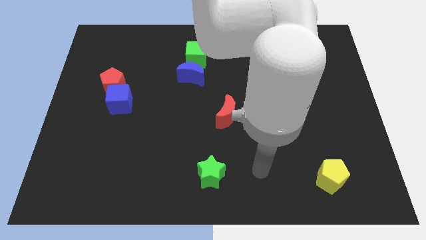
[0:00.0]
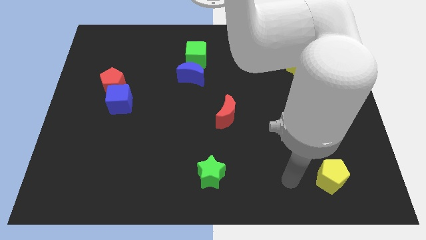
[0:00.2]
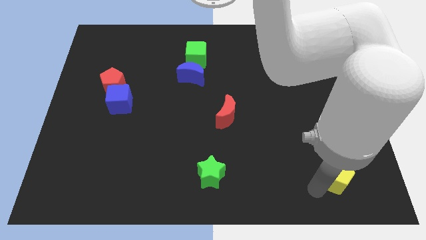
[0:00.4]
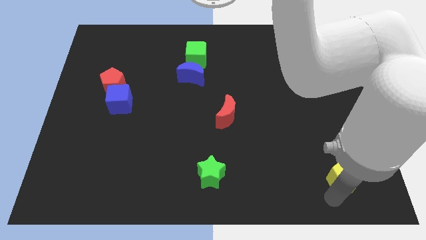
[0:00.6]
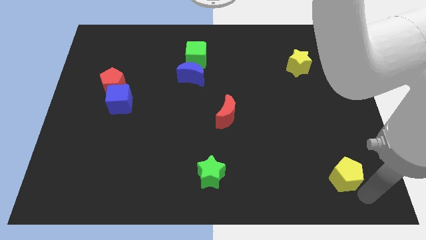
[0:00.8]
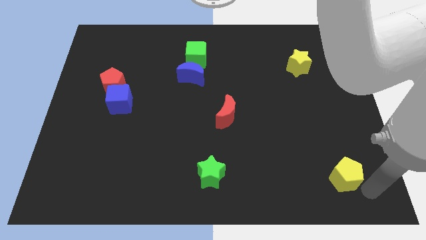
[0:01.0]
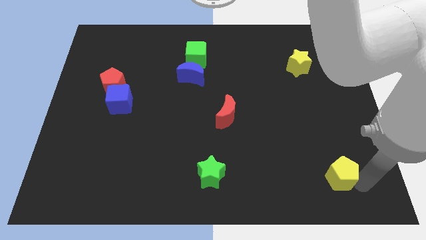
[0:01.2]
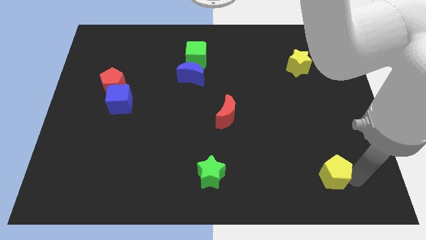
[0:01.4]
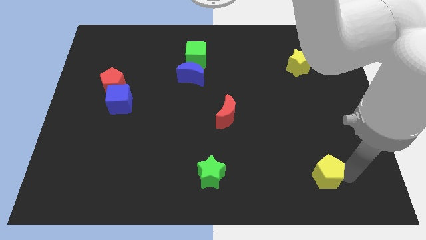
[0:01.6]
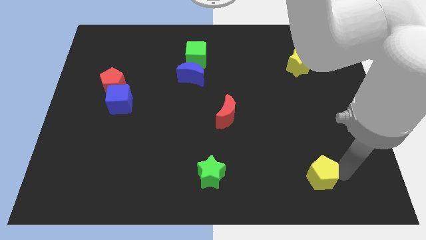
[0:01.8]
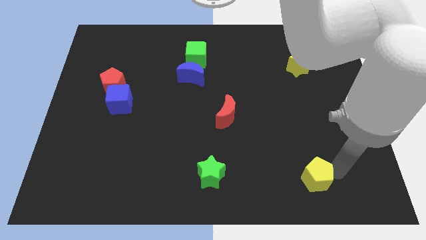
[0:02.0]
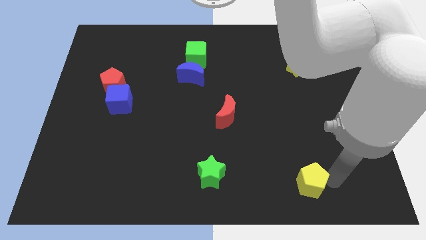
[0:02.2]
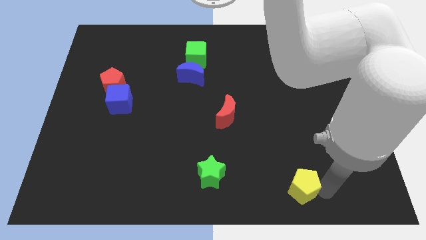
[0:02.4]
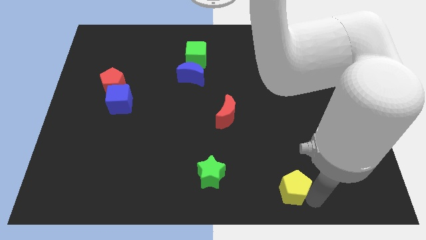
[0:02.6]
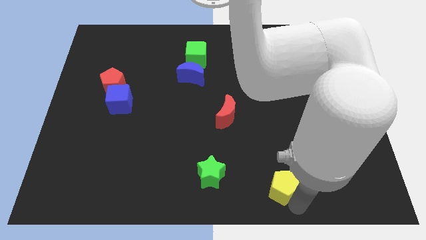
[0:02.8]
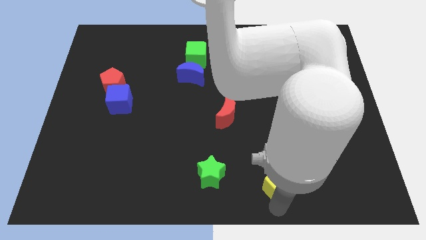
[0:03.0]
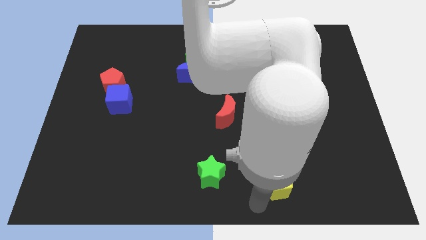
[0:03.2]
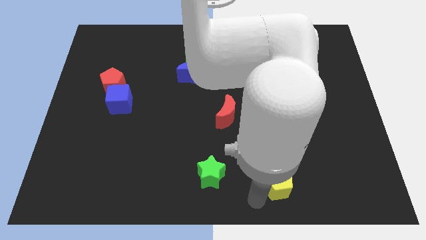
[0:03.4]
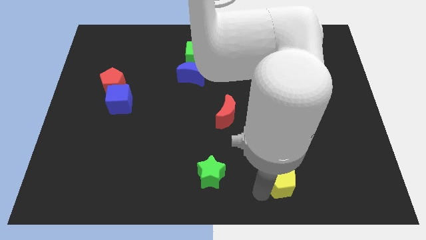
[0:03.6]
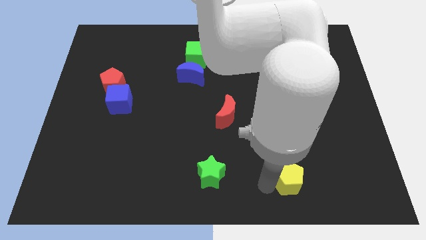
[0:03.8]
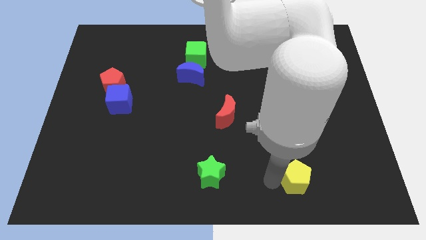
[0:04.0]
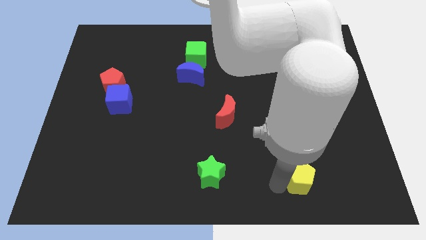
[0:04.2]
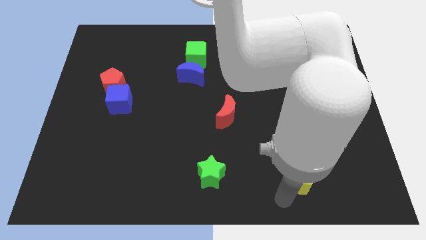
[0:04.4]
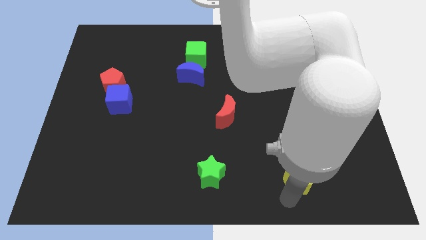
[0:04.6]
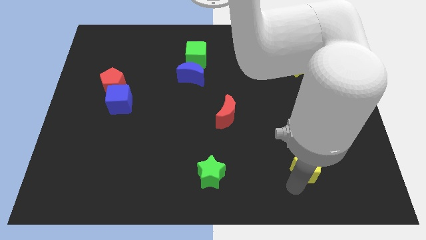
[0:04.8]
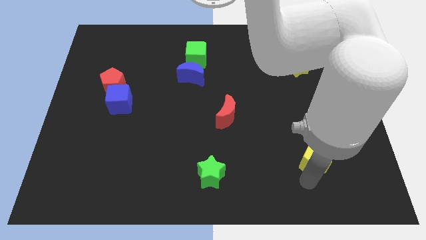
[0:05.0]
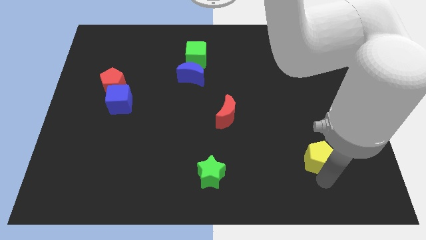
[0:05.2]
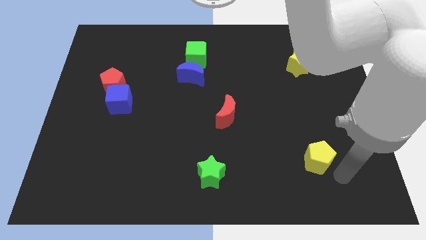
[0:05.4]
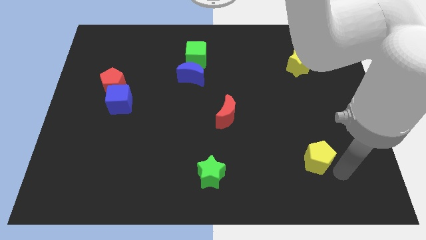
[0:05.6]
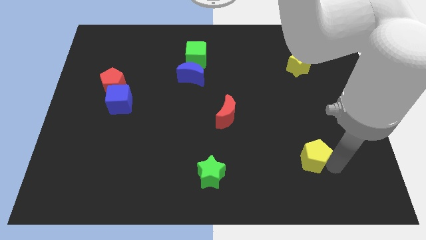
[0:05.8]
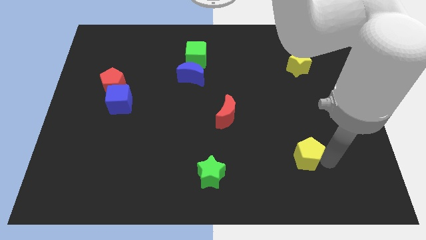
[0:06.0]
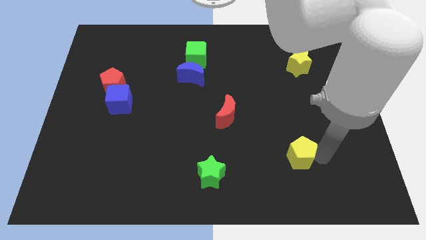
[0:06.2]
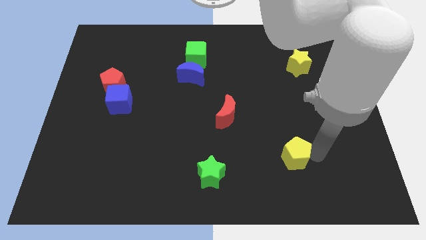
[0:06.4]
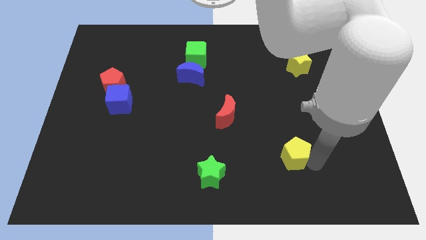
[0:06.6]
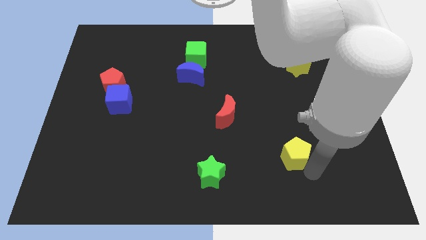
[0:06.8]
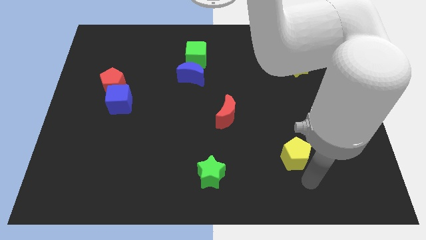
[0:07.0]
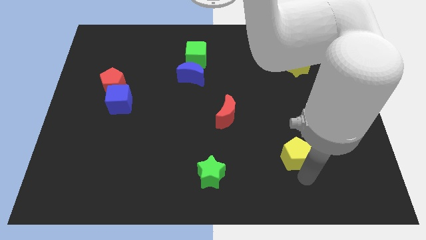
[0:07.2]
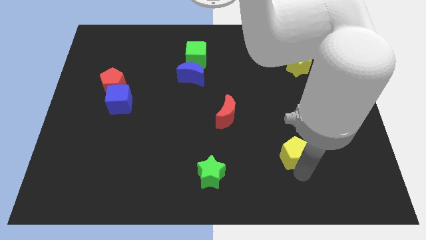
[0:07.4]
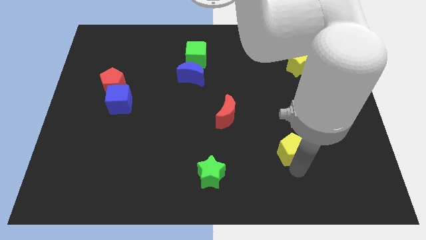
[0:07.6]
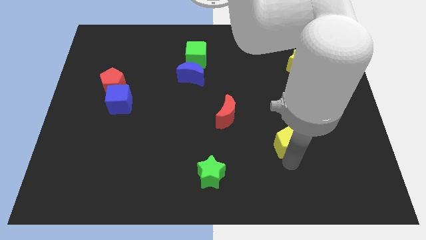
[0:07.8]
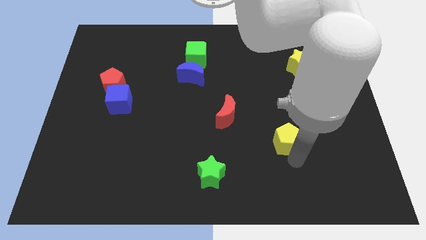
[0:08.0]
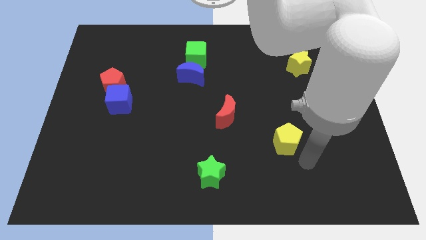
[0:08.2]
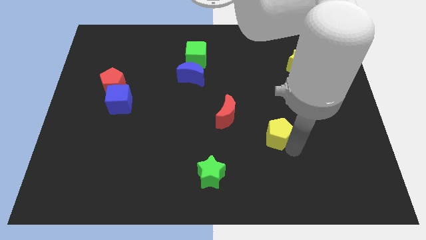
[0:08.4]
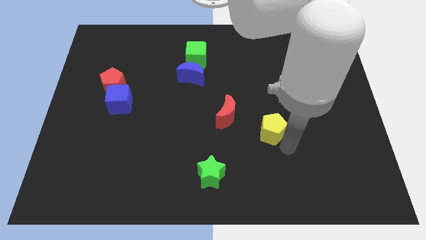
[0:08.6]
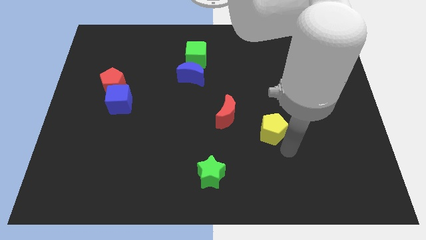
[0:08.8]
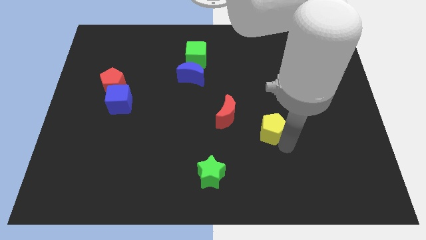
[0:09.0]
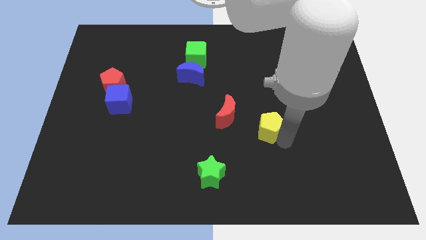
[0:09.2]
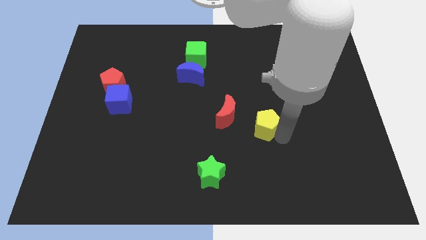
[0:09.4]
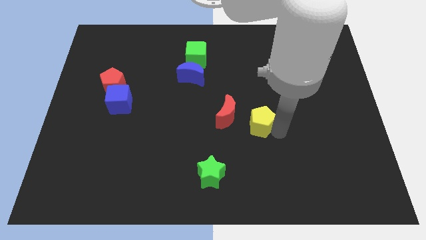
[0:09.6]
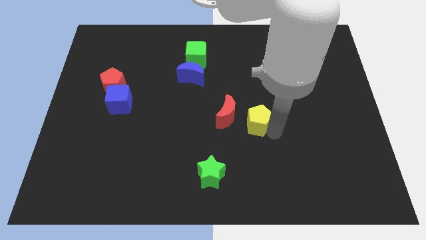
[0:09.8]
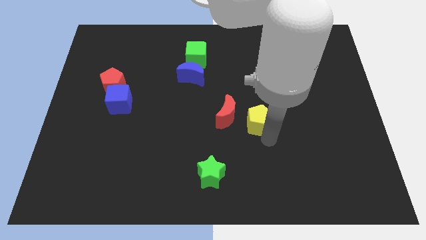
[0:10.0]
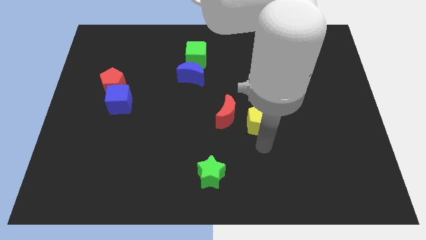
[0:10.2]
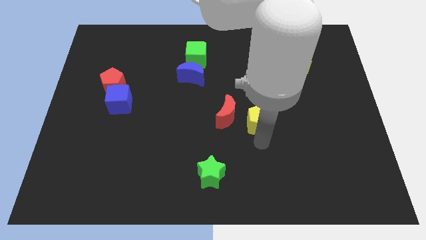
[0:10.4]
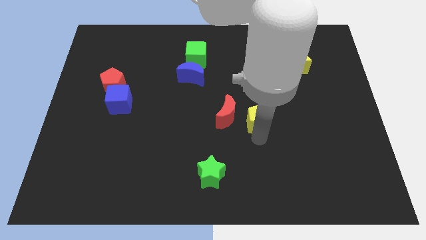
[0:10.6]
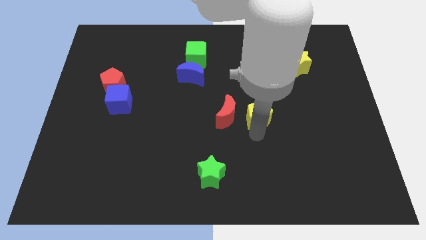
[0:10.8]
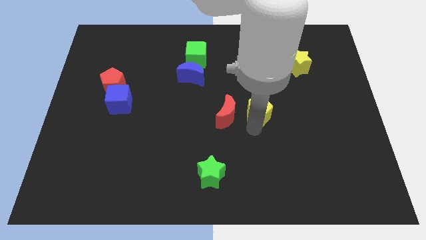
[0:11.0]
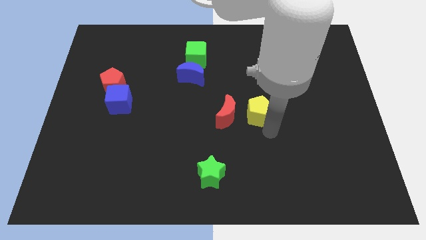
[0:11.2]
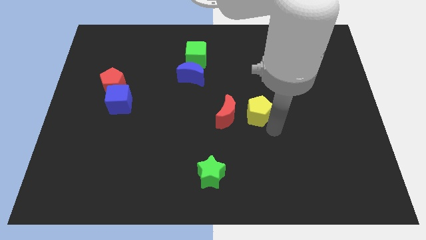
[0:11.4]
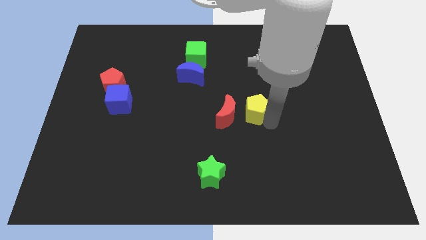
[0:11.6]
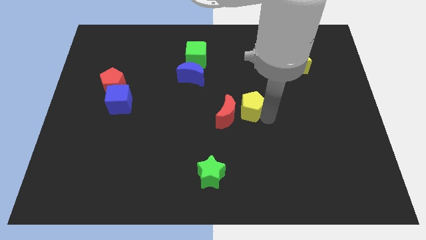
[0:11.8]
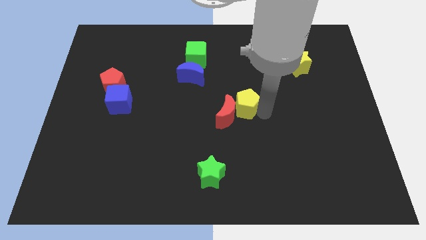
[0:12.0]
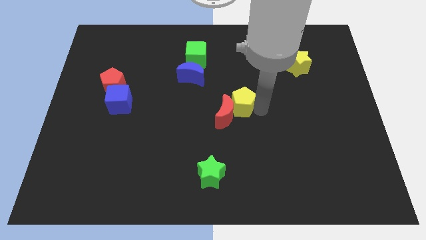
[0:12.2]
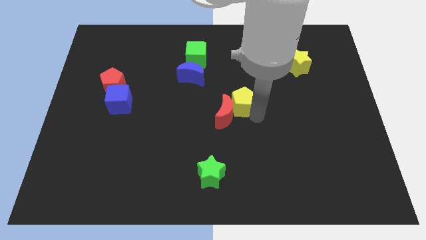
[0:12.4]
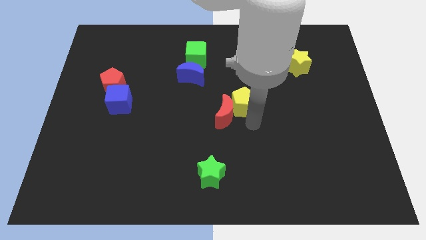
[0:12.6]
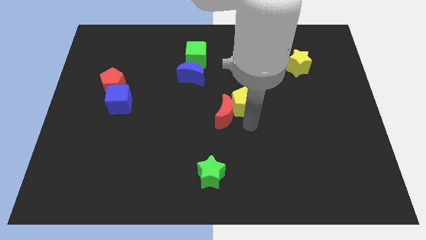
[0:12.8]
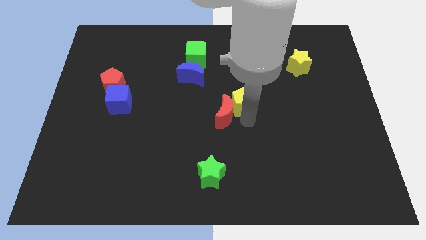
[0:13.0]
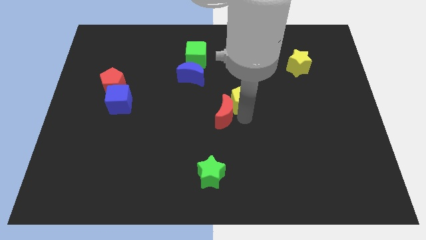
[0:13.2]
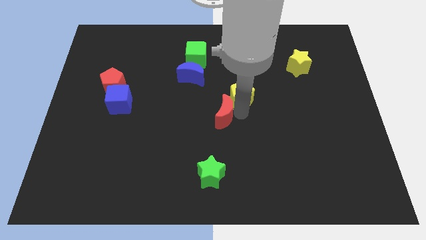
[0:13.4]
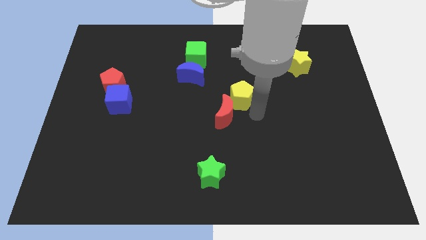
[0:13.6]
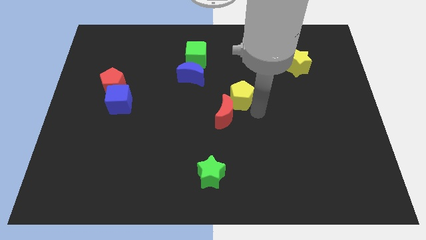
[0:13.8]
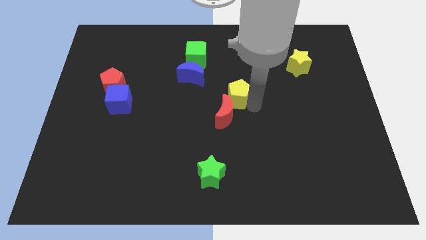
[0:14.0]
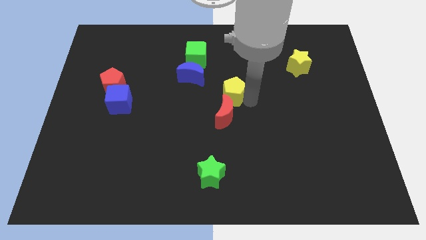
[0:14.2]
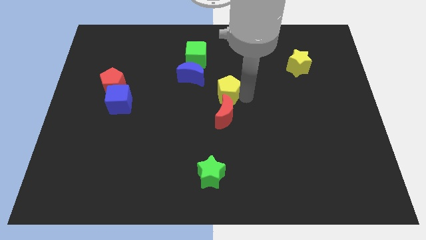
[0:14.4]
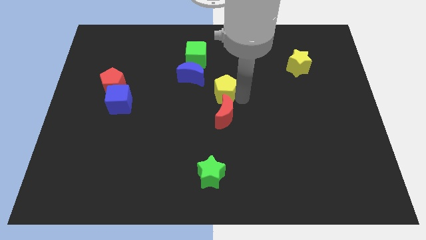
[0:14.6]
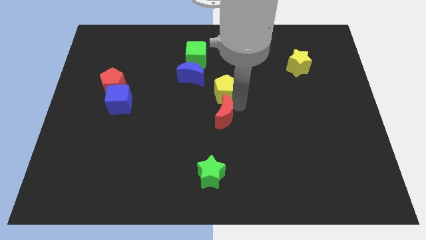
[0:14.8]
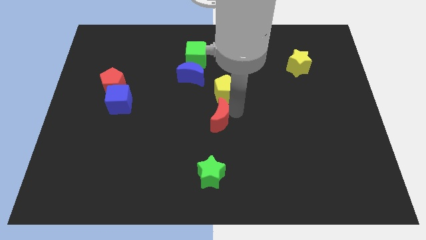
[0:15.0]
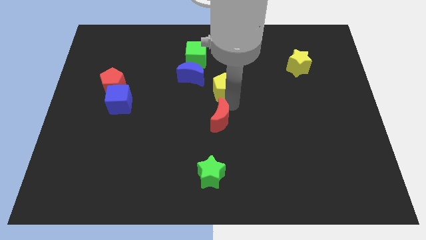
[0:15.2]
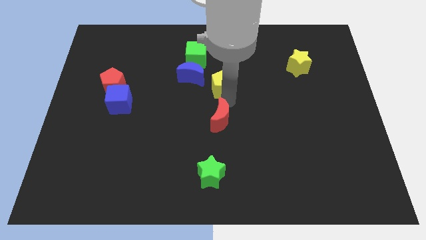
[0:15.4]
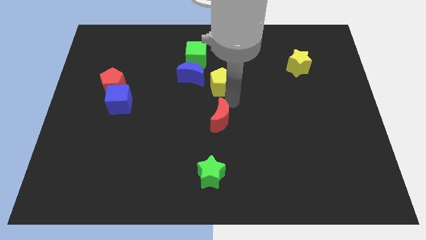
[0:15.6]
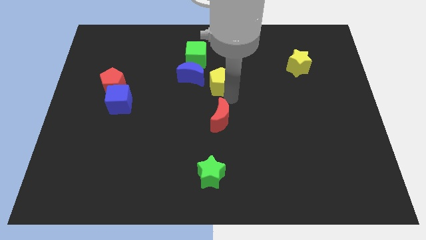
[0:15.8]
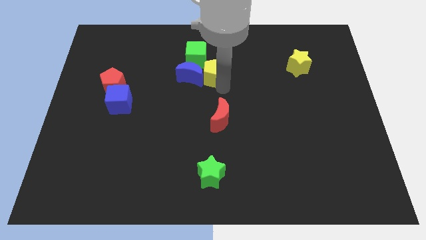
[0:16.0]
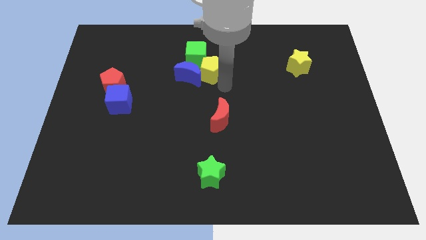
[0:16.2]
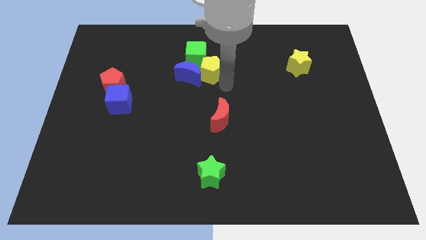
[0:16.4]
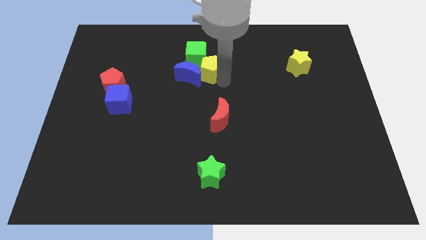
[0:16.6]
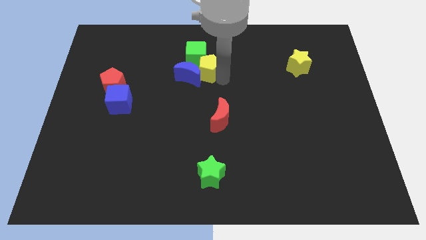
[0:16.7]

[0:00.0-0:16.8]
move the yellow pentagon to the green cube
